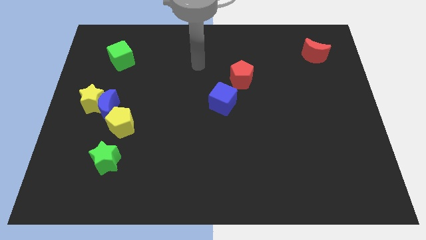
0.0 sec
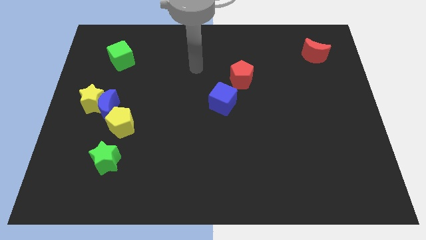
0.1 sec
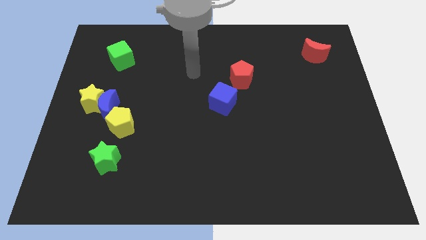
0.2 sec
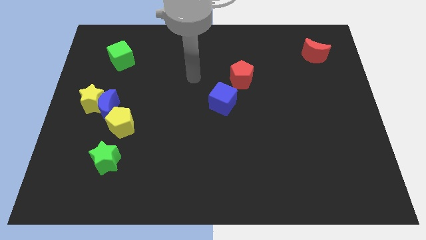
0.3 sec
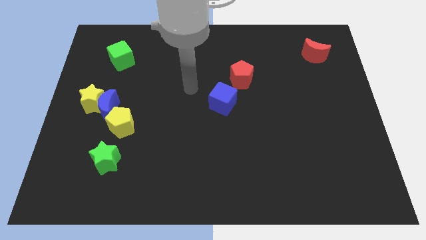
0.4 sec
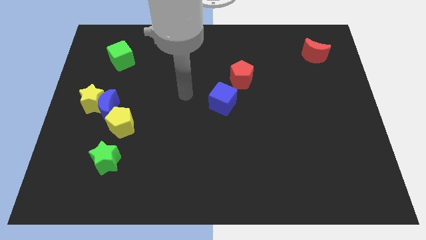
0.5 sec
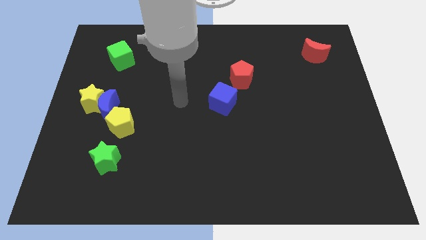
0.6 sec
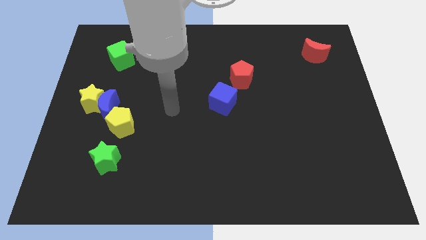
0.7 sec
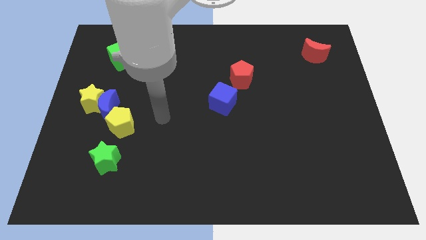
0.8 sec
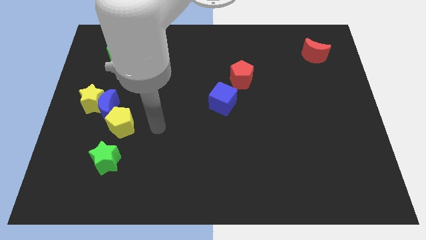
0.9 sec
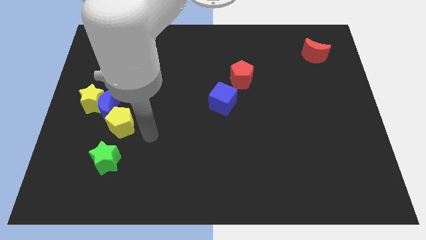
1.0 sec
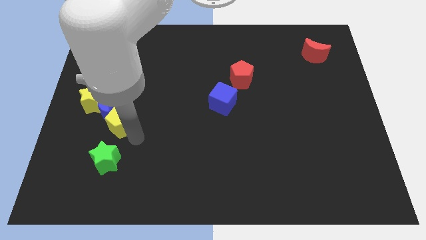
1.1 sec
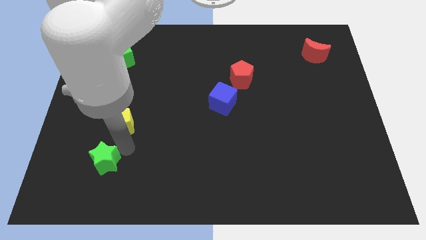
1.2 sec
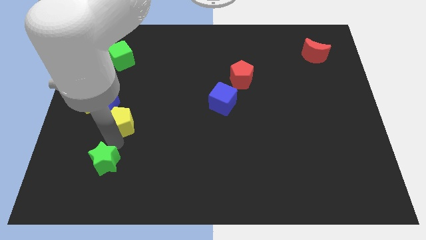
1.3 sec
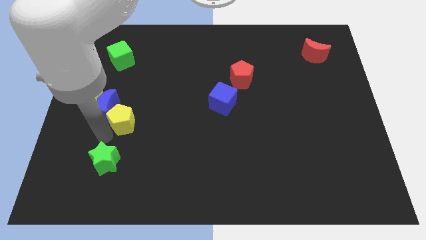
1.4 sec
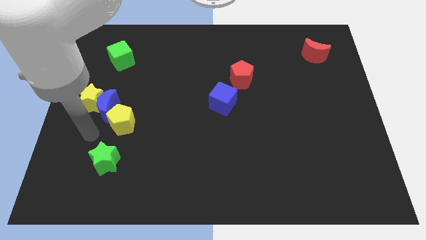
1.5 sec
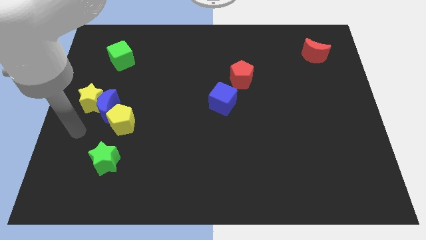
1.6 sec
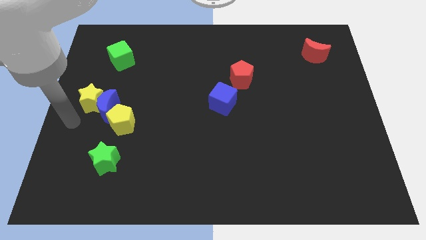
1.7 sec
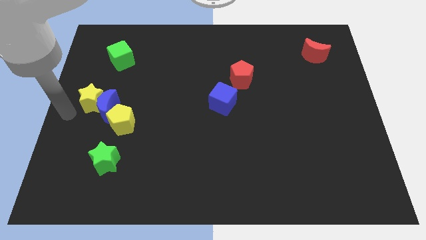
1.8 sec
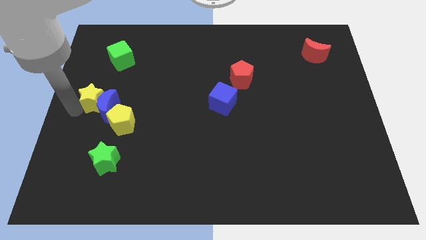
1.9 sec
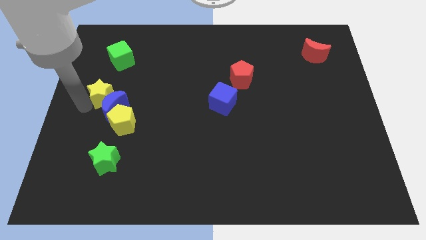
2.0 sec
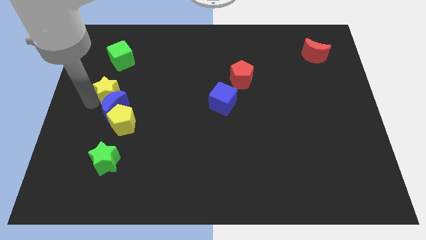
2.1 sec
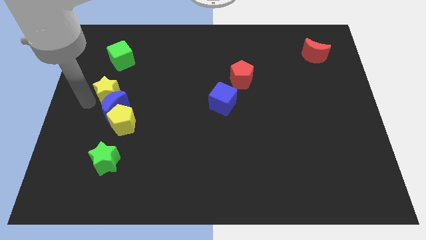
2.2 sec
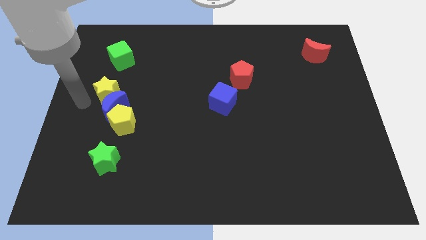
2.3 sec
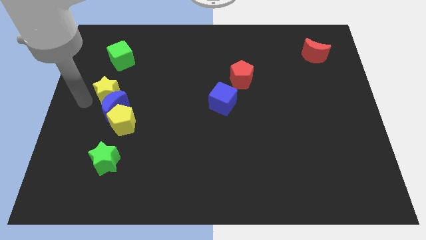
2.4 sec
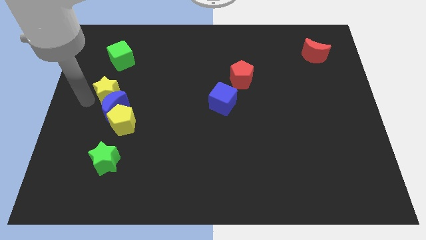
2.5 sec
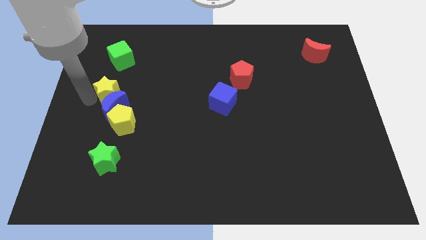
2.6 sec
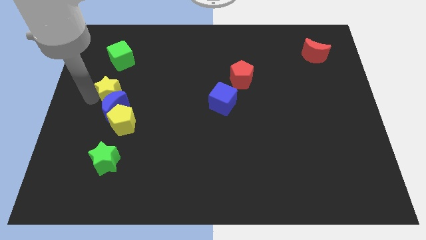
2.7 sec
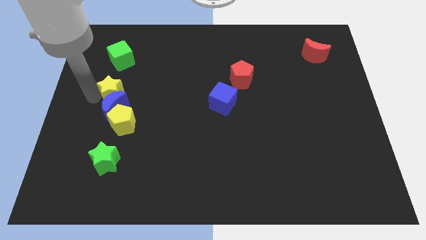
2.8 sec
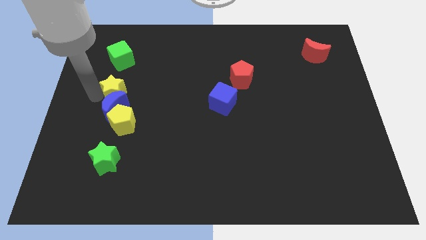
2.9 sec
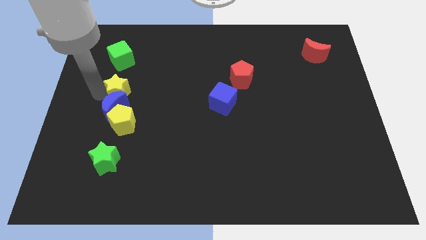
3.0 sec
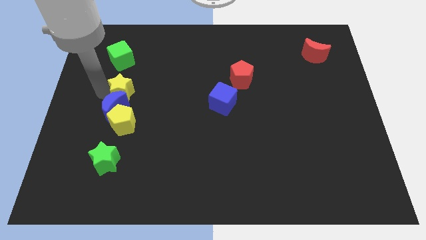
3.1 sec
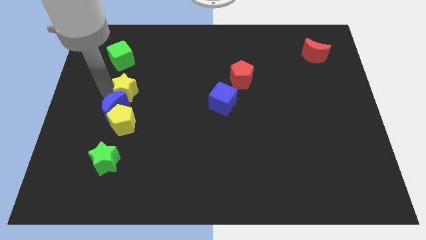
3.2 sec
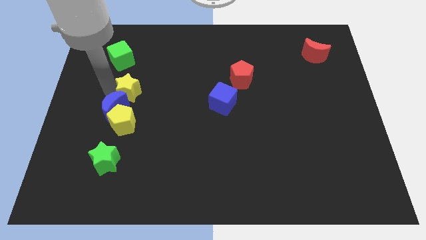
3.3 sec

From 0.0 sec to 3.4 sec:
slide the yellow star a bit right

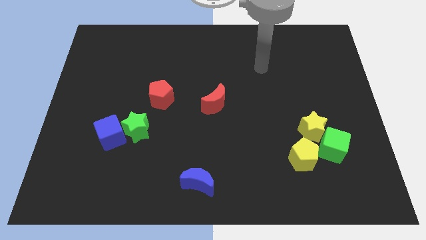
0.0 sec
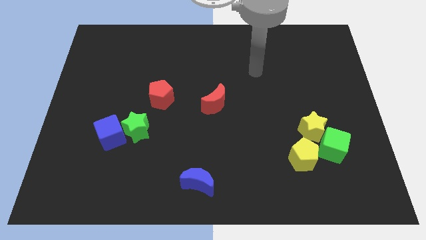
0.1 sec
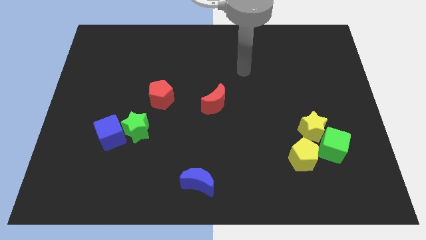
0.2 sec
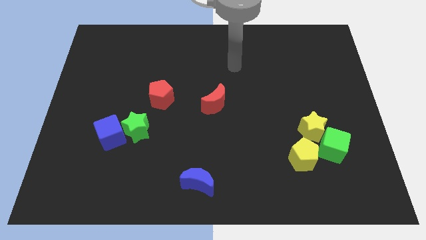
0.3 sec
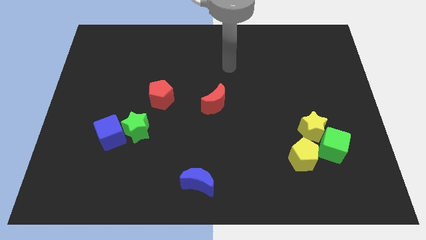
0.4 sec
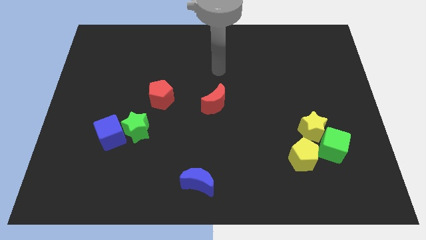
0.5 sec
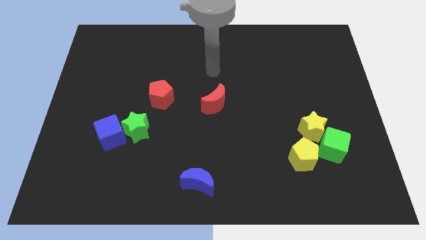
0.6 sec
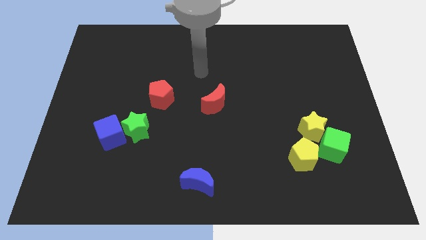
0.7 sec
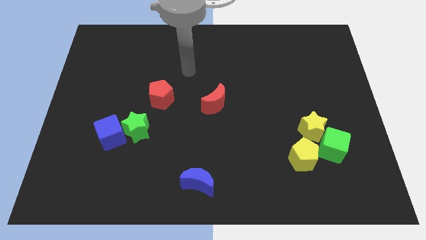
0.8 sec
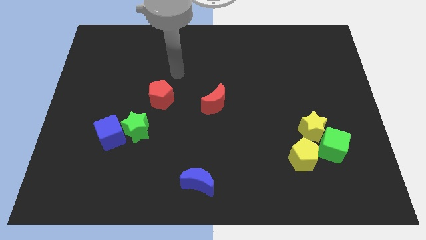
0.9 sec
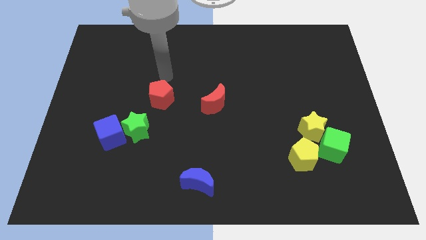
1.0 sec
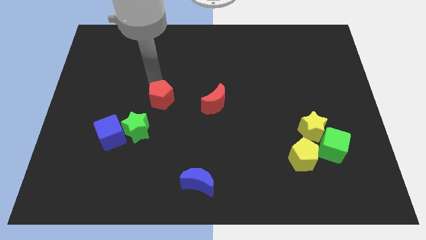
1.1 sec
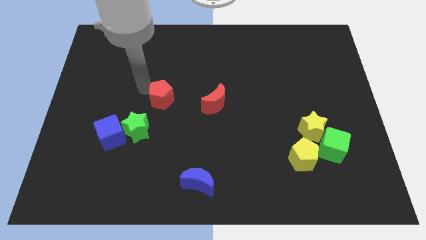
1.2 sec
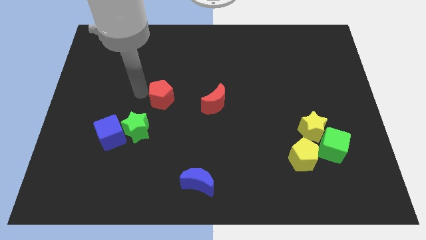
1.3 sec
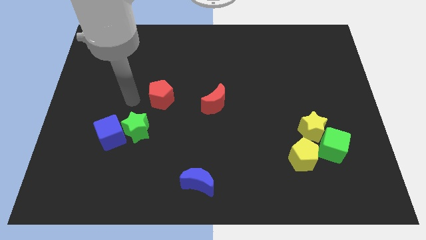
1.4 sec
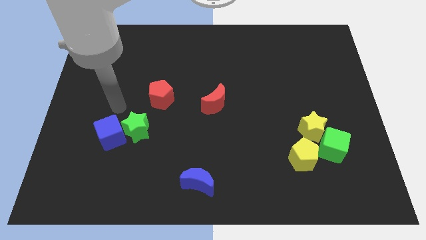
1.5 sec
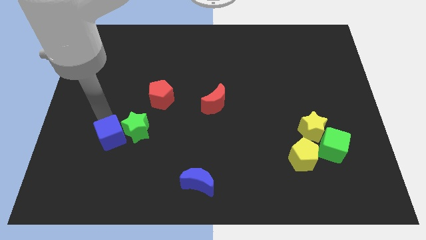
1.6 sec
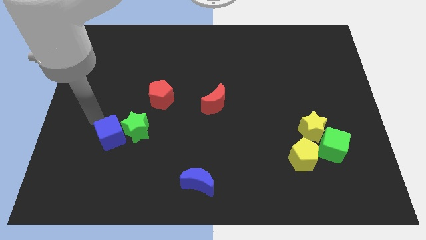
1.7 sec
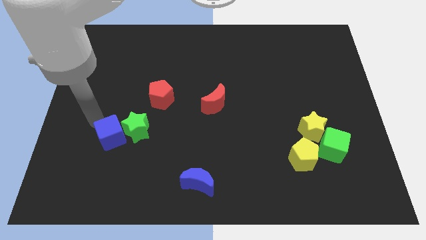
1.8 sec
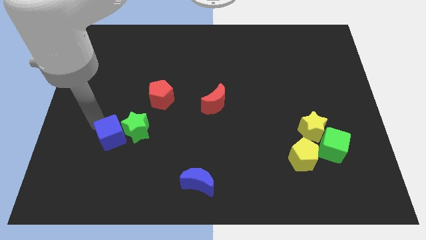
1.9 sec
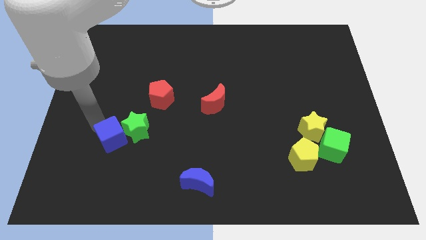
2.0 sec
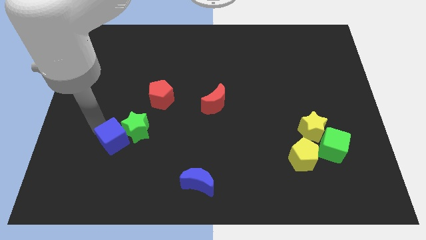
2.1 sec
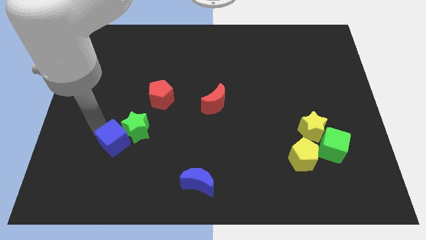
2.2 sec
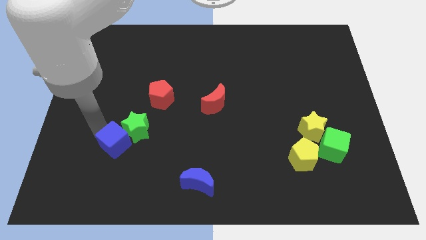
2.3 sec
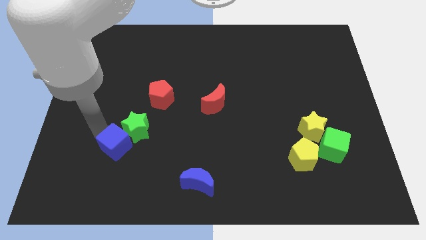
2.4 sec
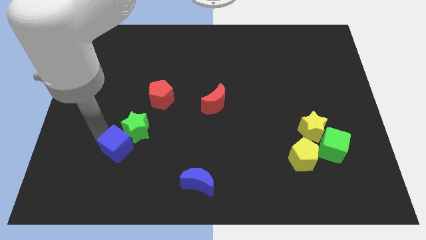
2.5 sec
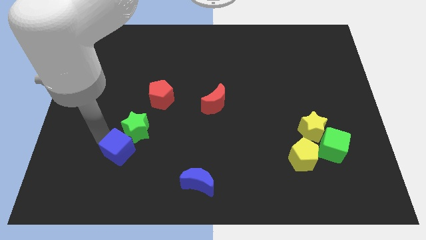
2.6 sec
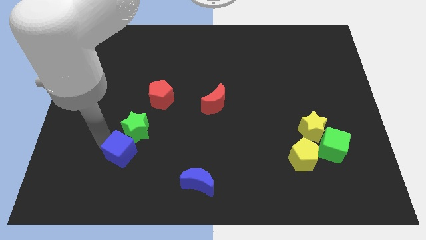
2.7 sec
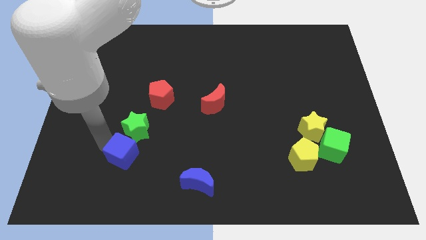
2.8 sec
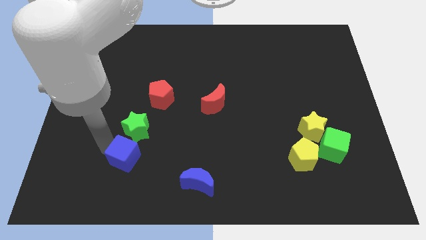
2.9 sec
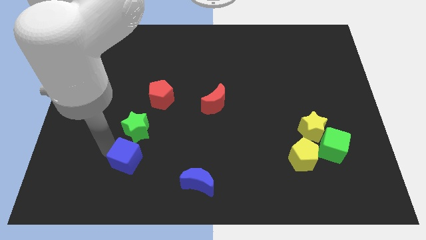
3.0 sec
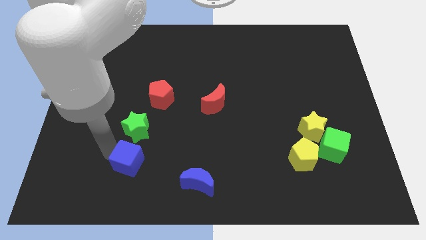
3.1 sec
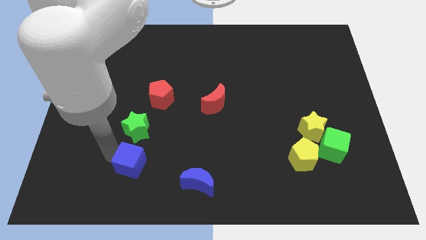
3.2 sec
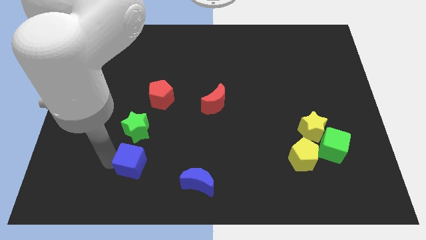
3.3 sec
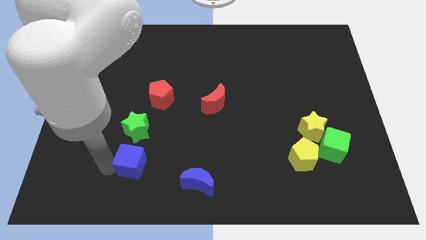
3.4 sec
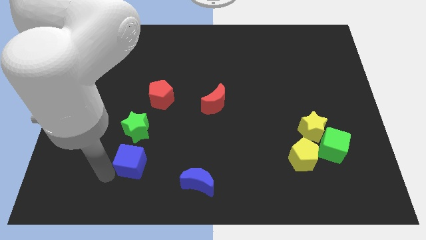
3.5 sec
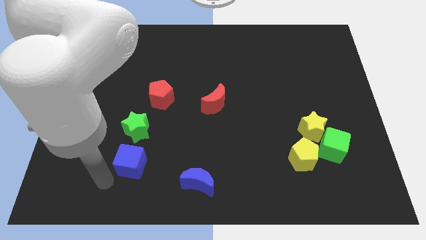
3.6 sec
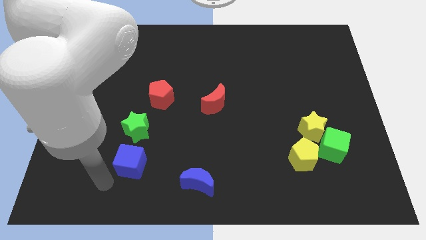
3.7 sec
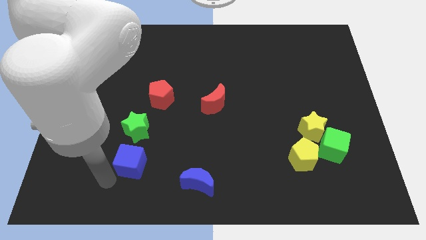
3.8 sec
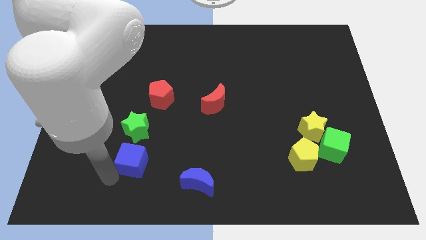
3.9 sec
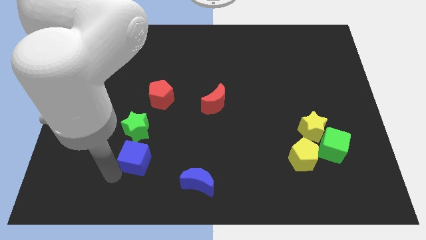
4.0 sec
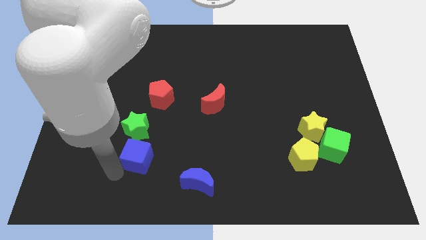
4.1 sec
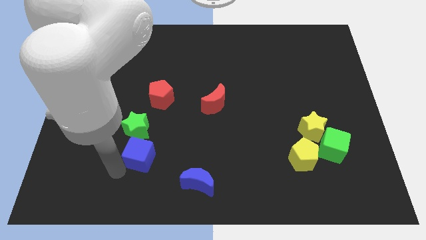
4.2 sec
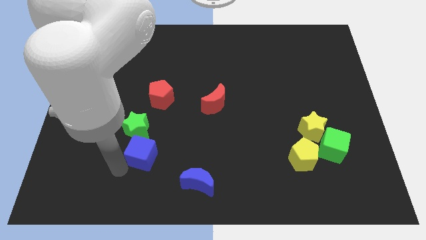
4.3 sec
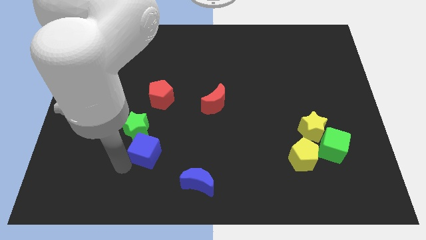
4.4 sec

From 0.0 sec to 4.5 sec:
move the blue cube to the right a little bit

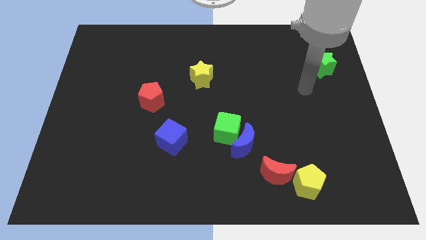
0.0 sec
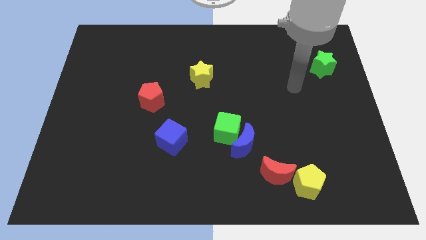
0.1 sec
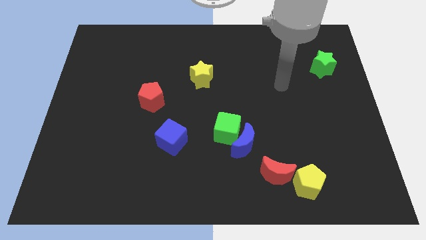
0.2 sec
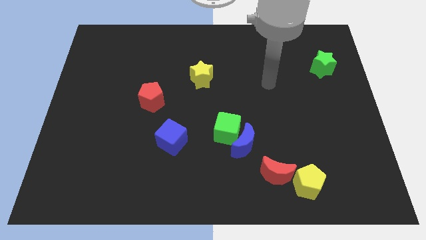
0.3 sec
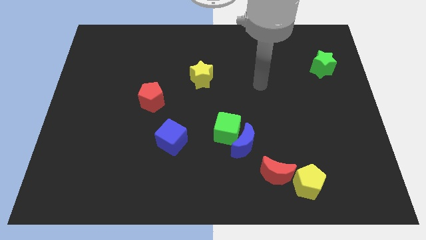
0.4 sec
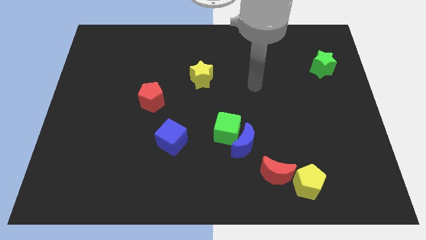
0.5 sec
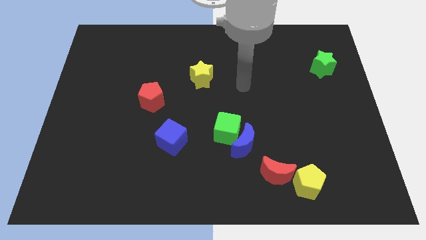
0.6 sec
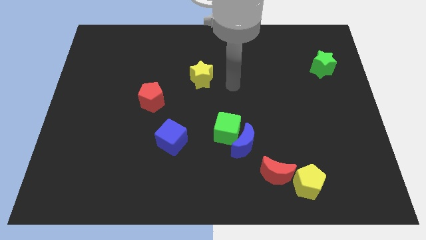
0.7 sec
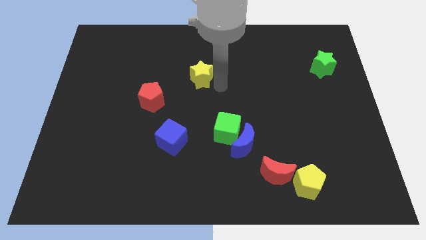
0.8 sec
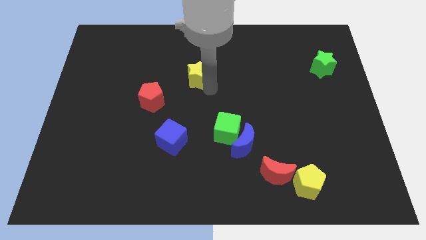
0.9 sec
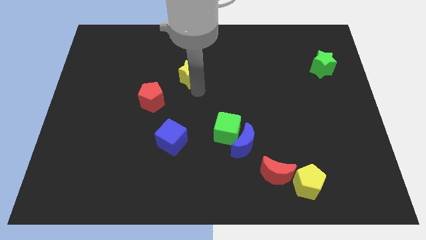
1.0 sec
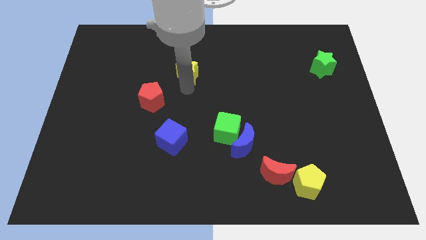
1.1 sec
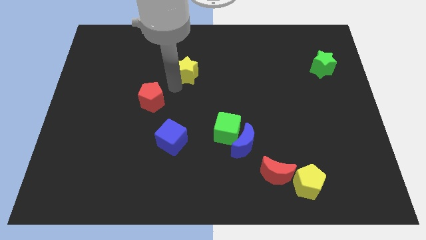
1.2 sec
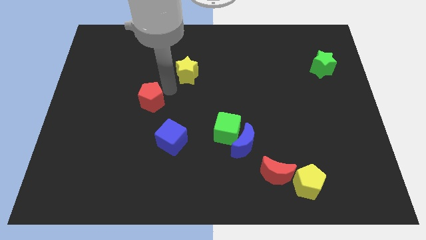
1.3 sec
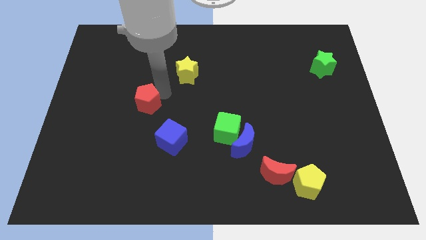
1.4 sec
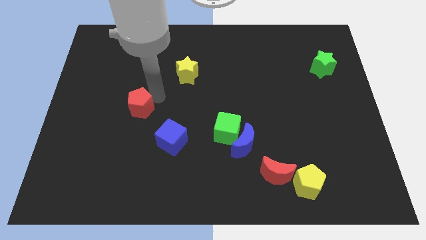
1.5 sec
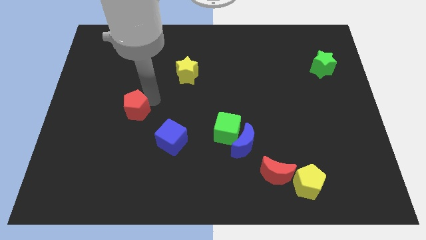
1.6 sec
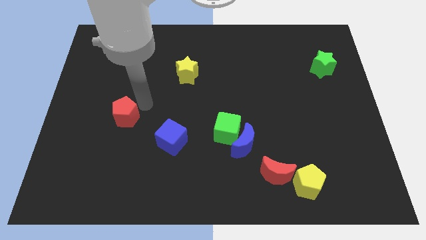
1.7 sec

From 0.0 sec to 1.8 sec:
slightly slide the red pentagon down and to the left diagonally
